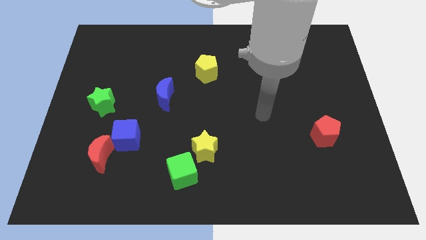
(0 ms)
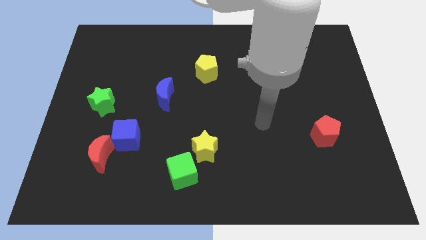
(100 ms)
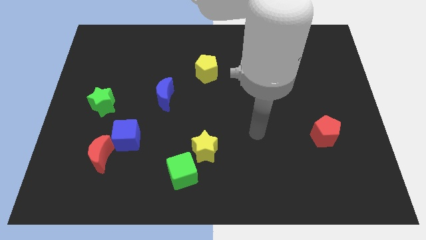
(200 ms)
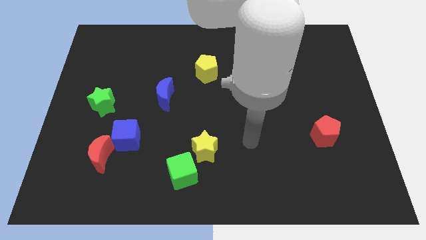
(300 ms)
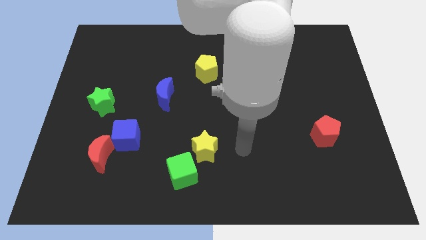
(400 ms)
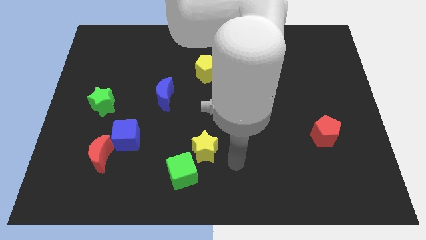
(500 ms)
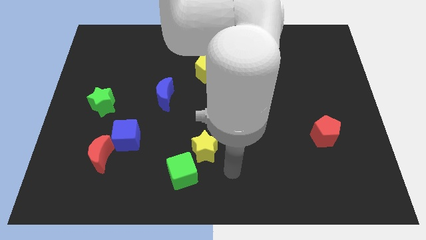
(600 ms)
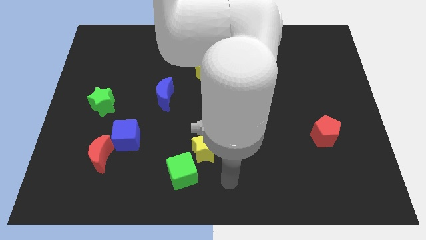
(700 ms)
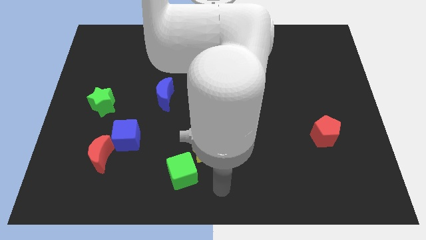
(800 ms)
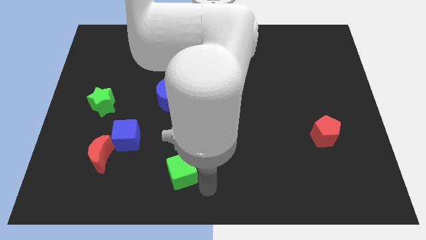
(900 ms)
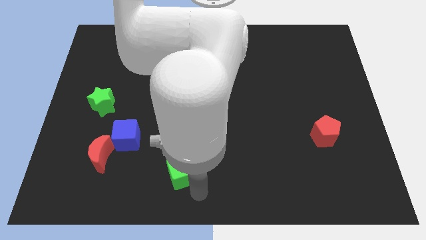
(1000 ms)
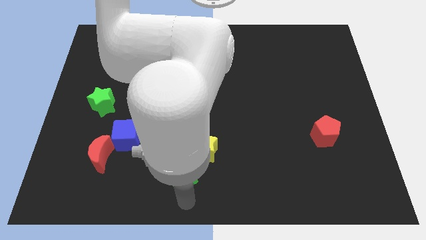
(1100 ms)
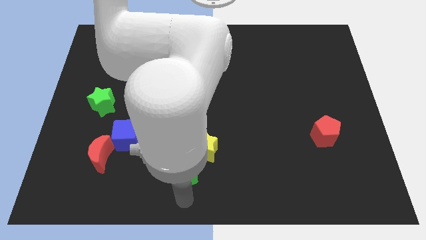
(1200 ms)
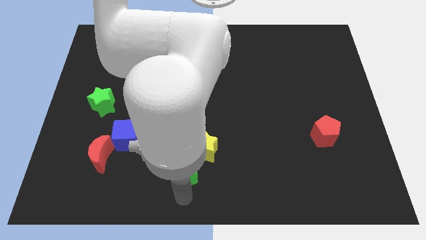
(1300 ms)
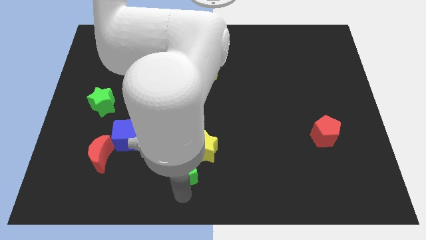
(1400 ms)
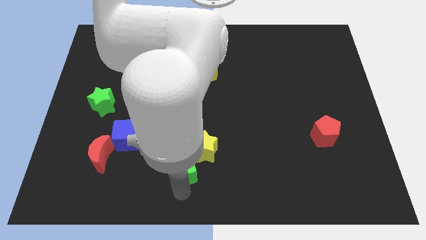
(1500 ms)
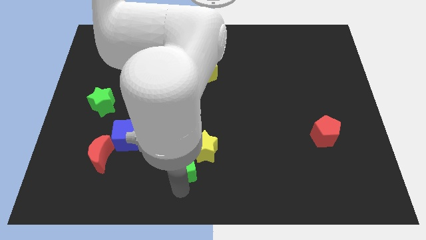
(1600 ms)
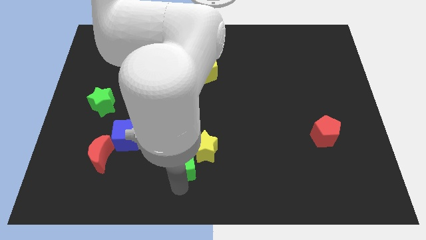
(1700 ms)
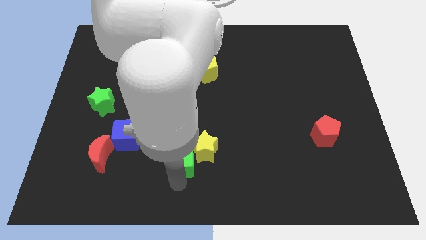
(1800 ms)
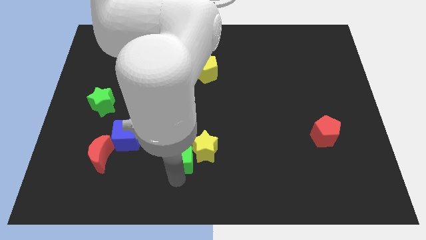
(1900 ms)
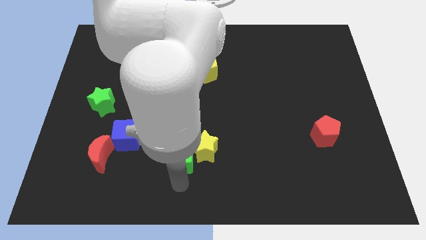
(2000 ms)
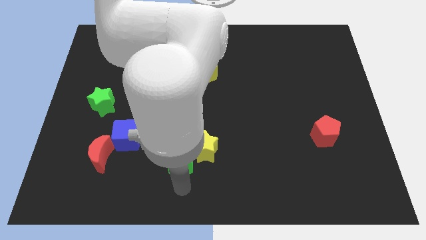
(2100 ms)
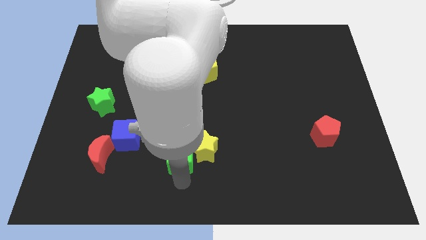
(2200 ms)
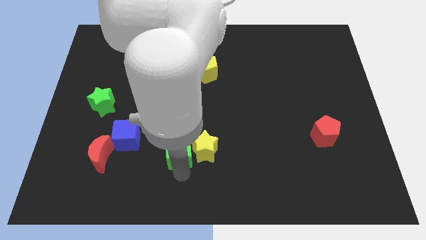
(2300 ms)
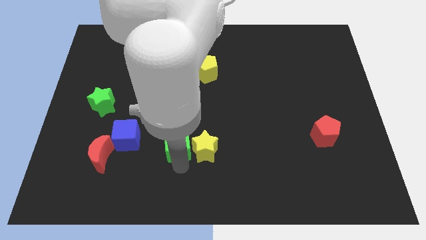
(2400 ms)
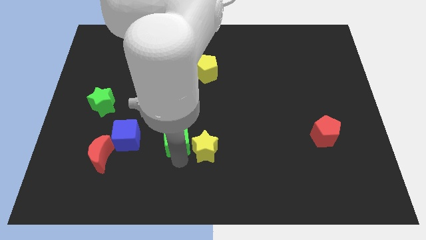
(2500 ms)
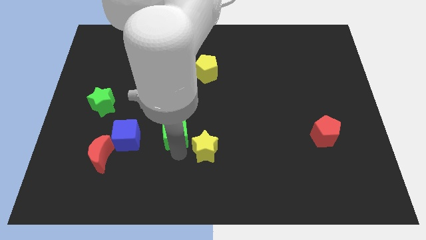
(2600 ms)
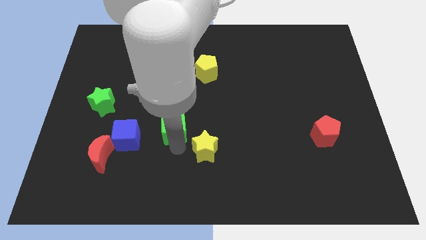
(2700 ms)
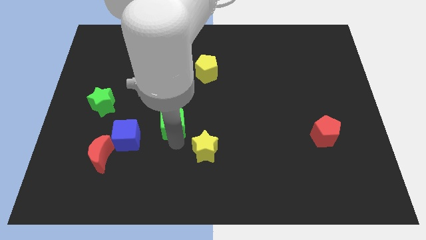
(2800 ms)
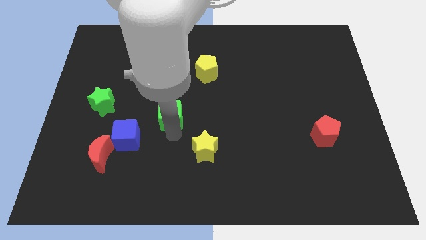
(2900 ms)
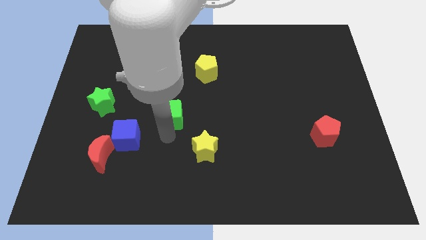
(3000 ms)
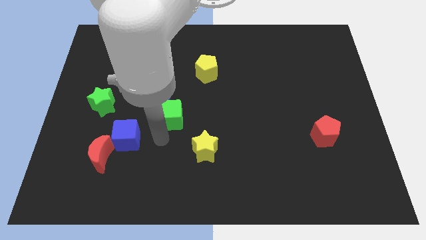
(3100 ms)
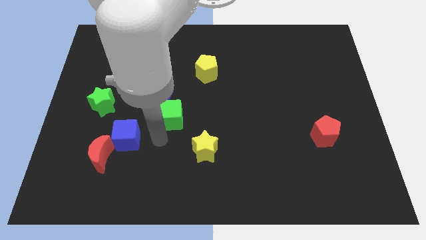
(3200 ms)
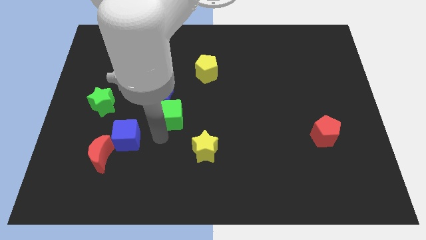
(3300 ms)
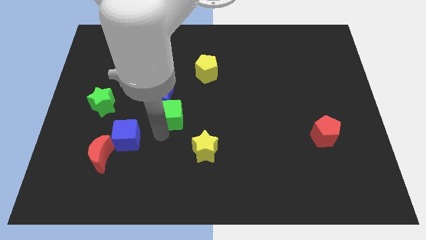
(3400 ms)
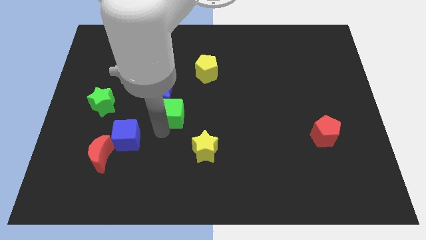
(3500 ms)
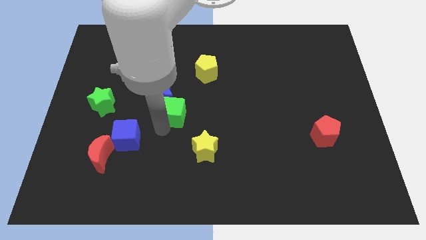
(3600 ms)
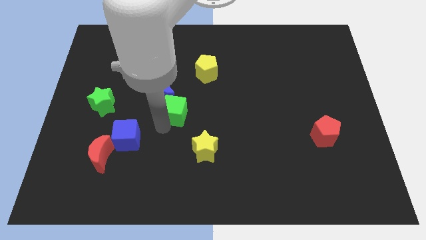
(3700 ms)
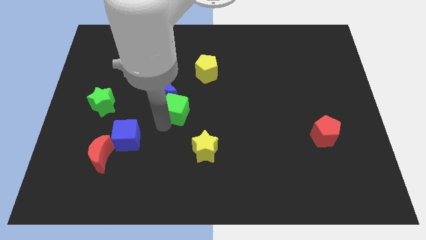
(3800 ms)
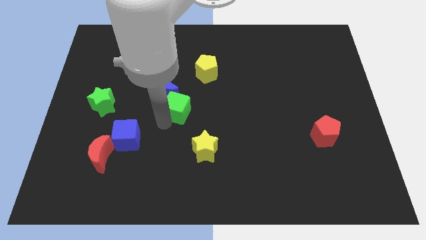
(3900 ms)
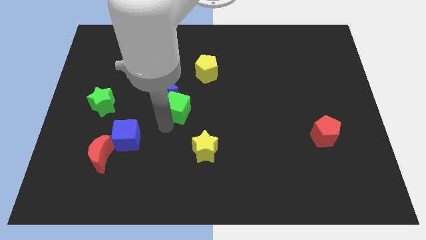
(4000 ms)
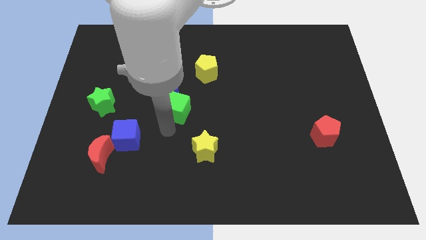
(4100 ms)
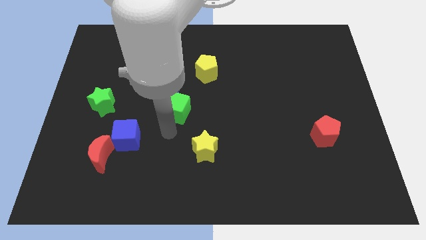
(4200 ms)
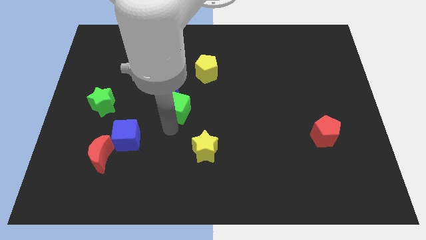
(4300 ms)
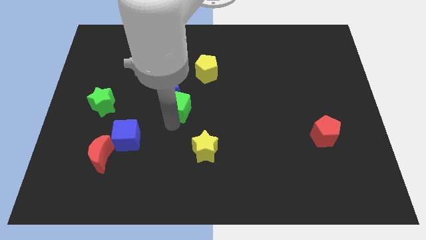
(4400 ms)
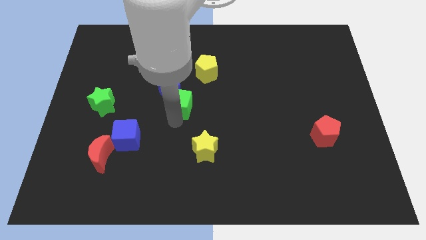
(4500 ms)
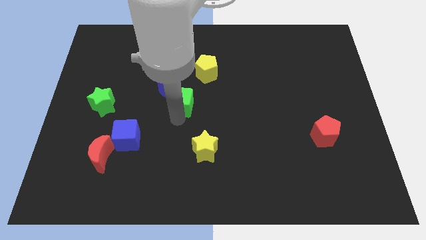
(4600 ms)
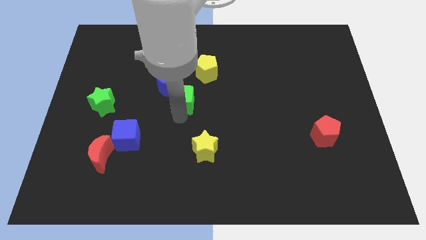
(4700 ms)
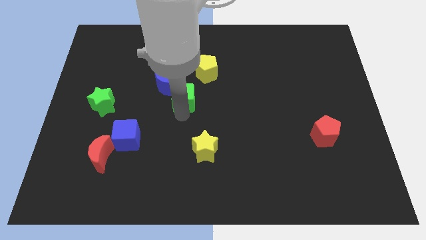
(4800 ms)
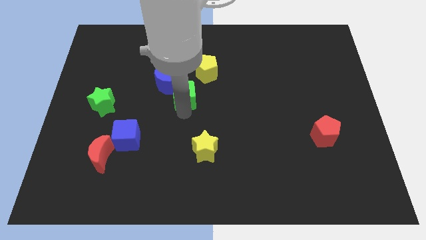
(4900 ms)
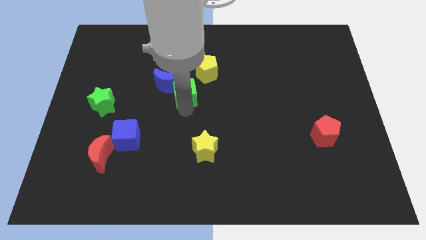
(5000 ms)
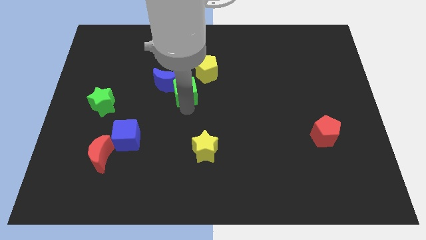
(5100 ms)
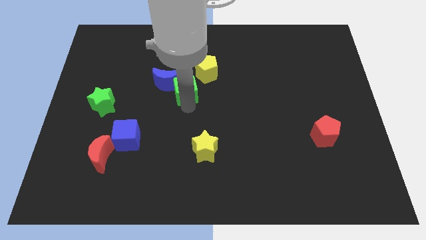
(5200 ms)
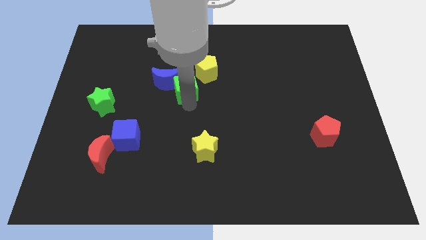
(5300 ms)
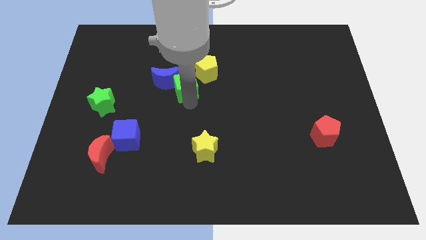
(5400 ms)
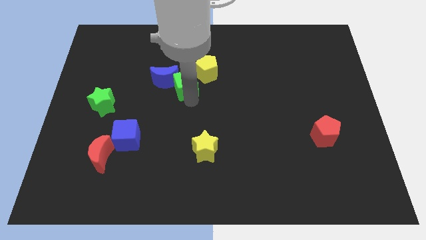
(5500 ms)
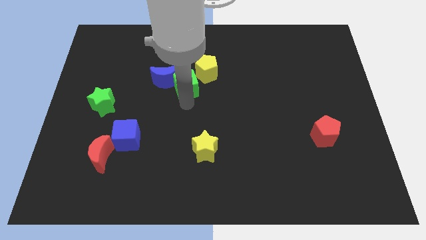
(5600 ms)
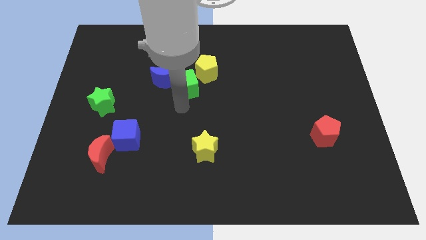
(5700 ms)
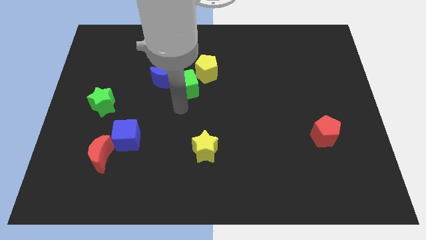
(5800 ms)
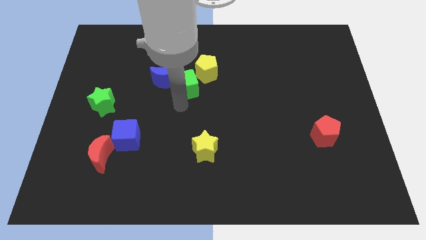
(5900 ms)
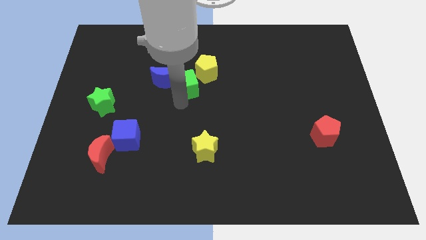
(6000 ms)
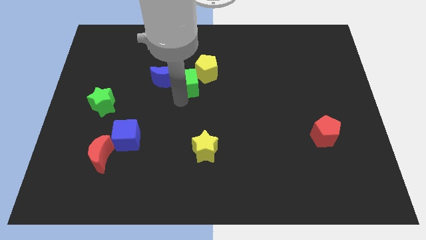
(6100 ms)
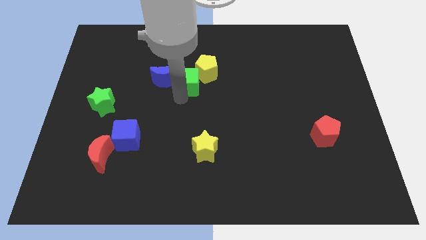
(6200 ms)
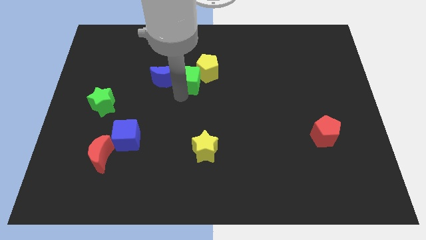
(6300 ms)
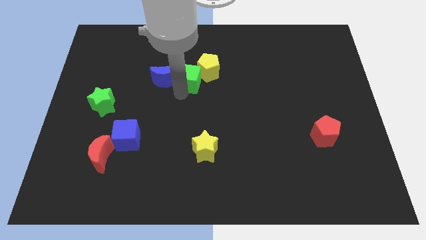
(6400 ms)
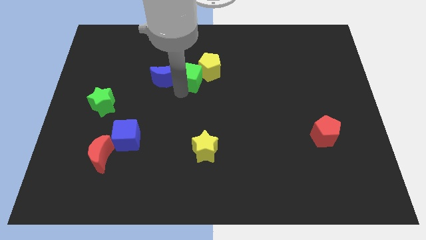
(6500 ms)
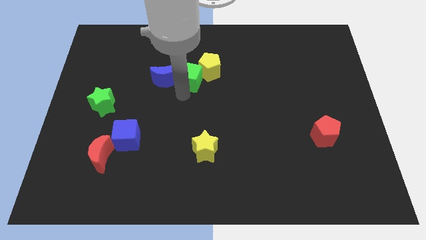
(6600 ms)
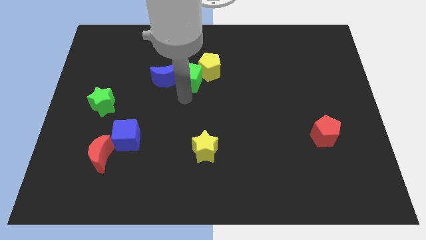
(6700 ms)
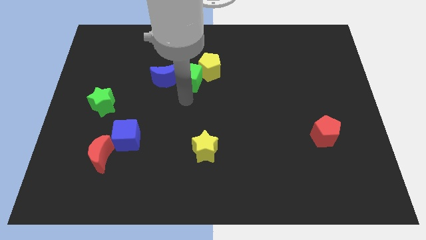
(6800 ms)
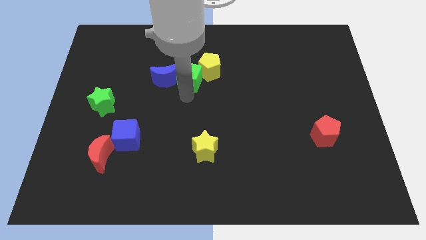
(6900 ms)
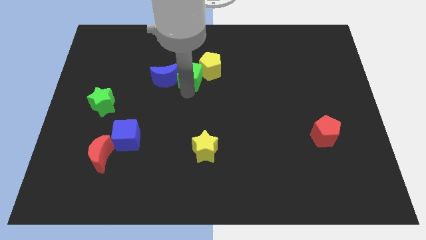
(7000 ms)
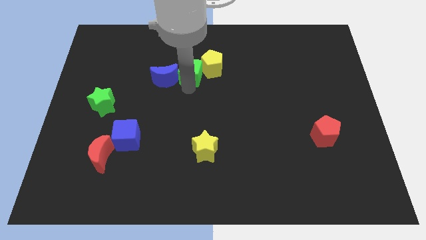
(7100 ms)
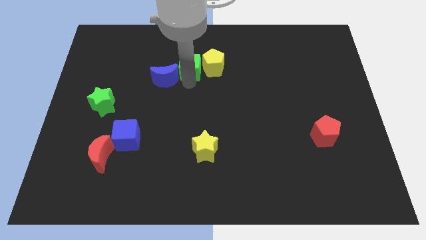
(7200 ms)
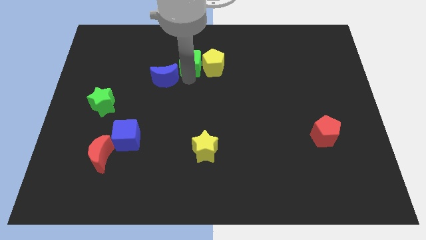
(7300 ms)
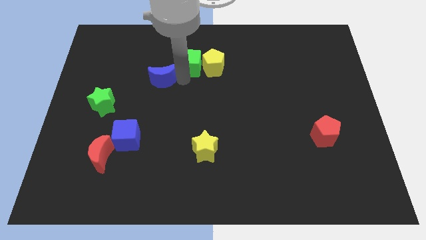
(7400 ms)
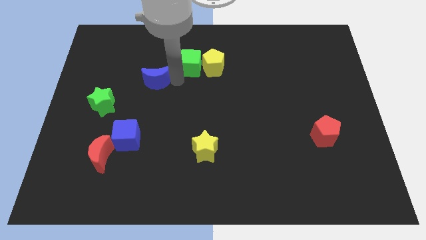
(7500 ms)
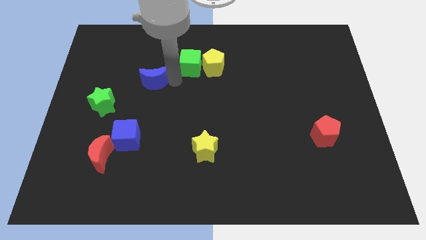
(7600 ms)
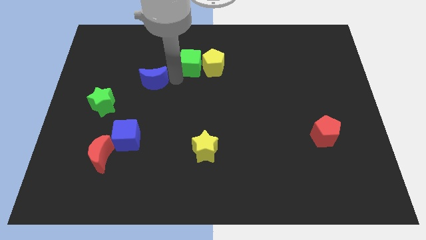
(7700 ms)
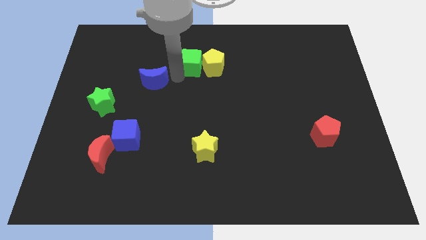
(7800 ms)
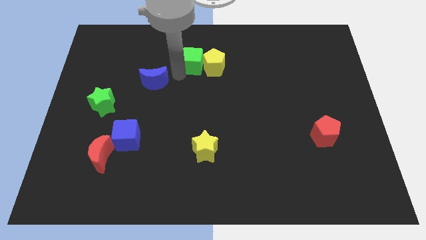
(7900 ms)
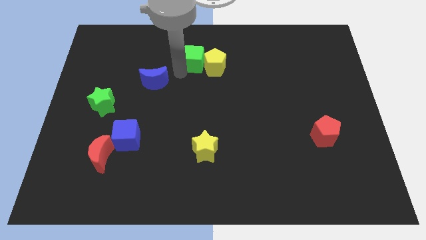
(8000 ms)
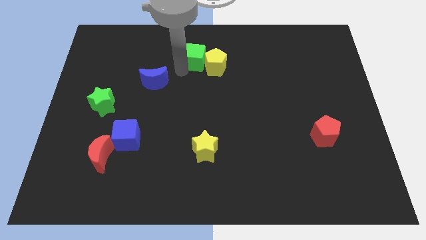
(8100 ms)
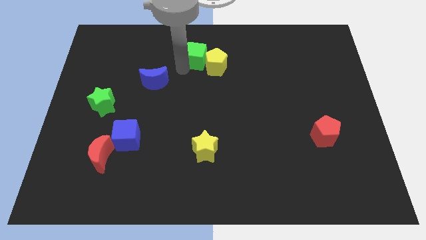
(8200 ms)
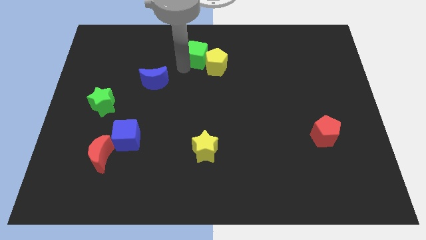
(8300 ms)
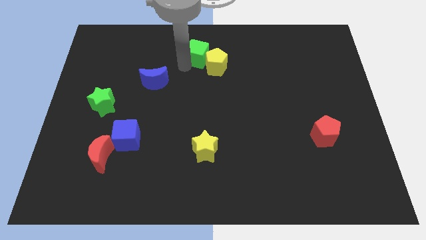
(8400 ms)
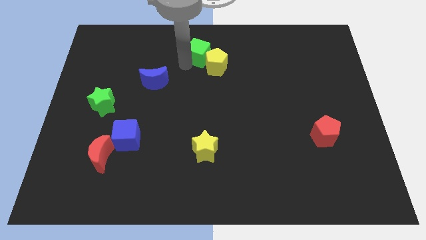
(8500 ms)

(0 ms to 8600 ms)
move the green cube to the top
